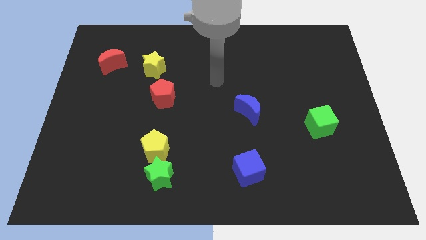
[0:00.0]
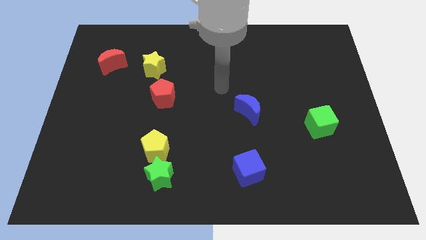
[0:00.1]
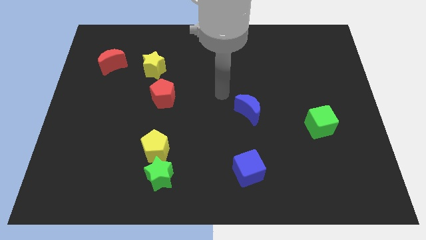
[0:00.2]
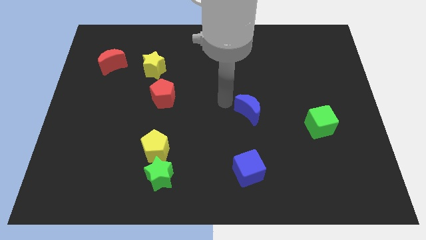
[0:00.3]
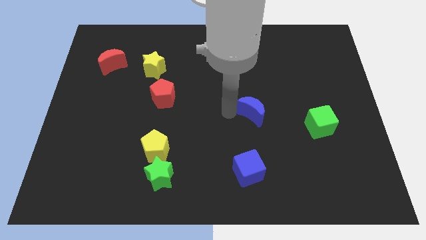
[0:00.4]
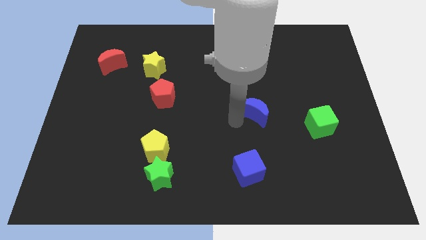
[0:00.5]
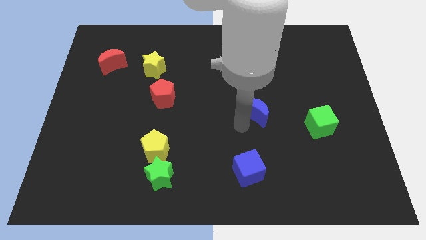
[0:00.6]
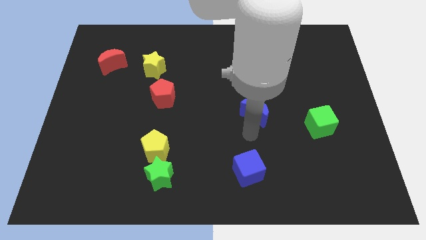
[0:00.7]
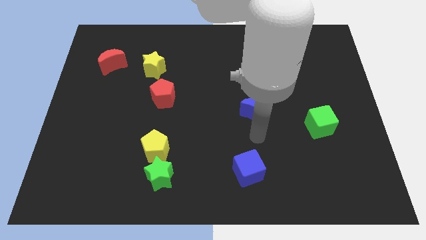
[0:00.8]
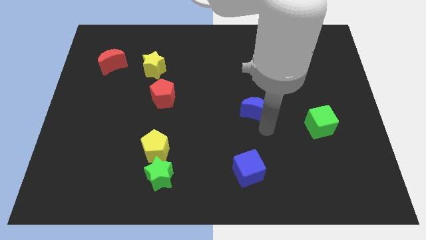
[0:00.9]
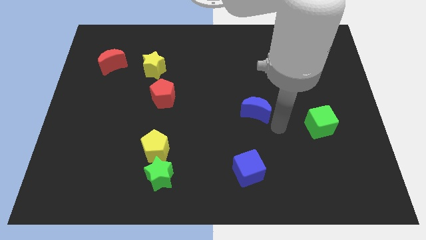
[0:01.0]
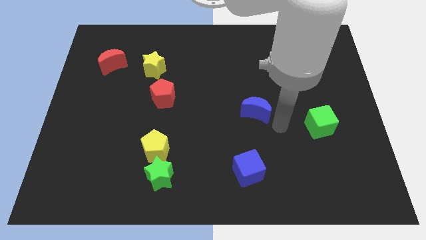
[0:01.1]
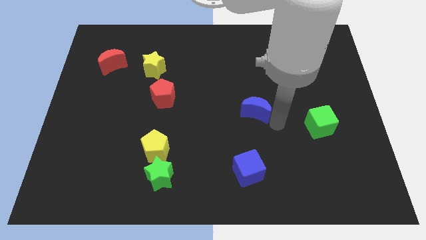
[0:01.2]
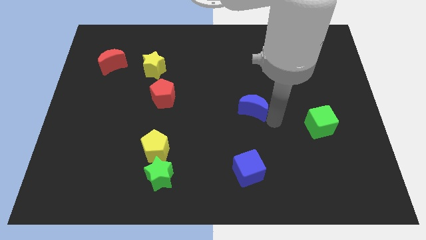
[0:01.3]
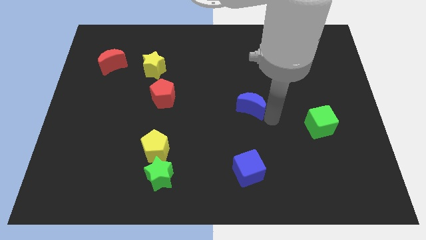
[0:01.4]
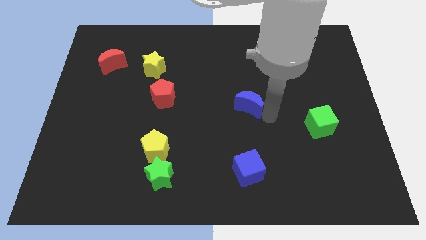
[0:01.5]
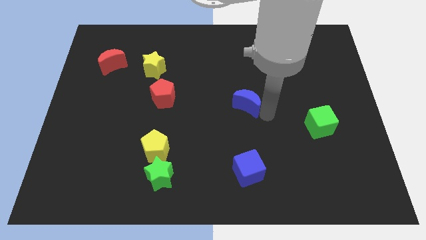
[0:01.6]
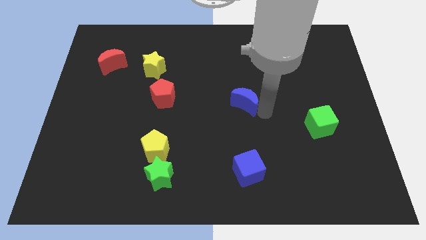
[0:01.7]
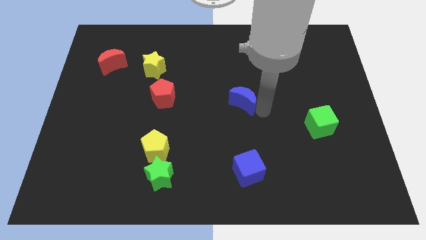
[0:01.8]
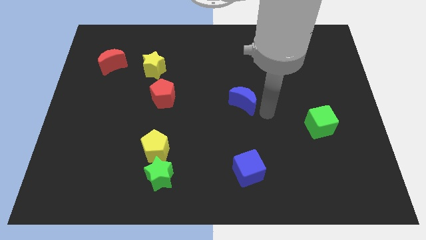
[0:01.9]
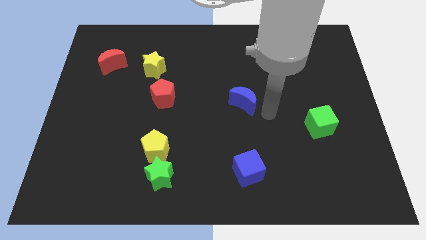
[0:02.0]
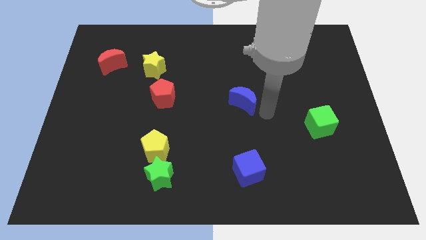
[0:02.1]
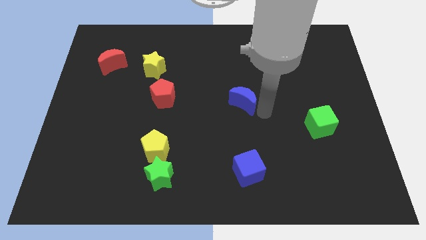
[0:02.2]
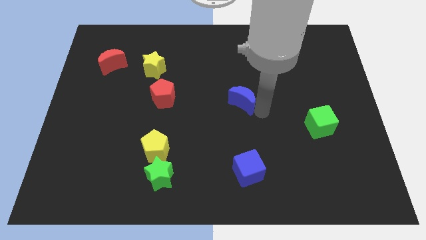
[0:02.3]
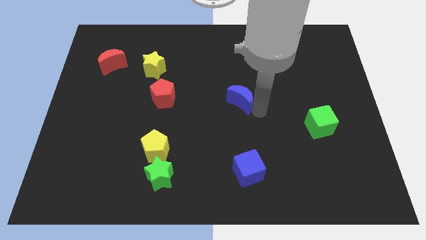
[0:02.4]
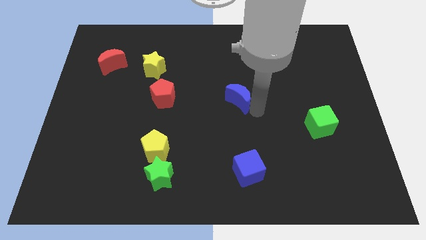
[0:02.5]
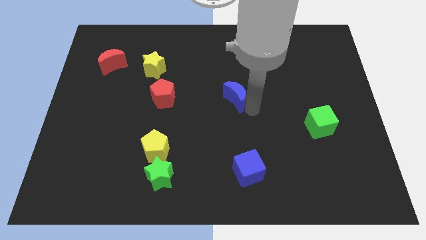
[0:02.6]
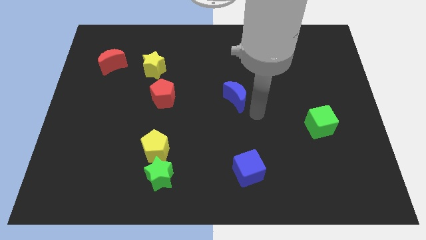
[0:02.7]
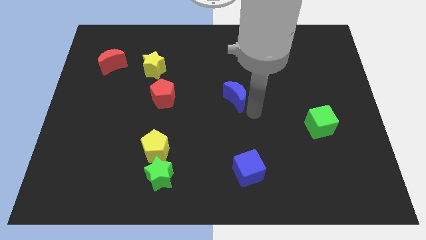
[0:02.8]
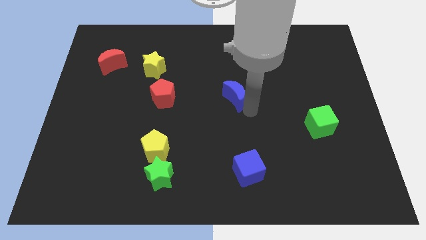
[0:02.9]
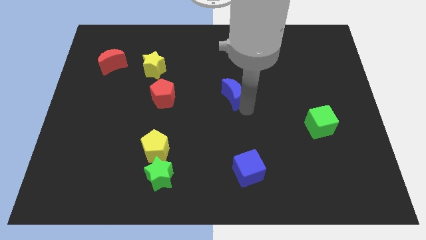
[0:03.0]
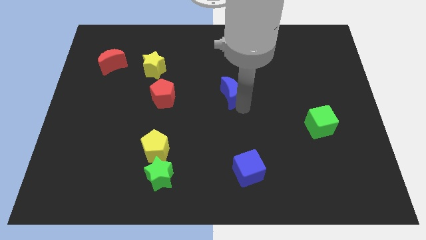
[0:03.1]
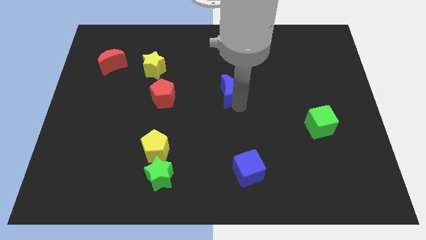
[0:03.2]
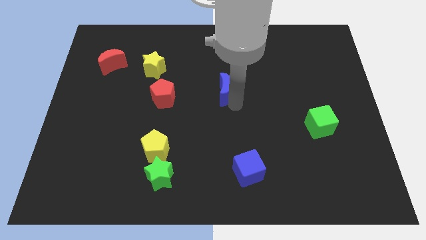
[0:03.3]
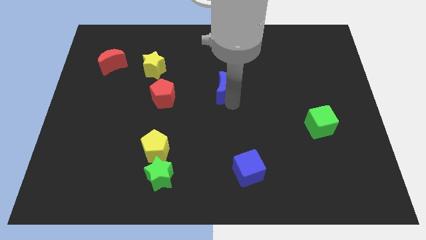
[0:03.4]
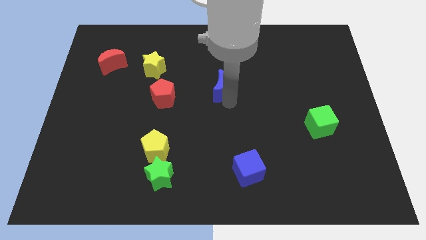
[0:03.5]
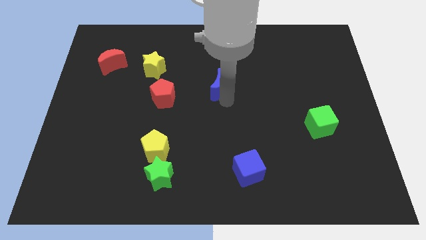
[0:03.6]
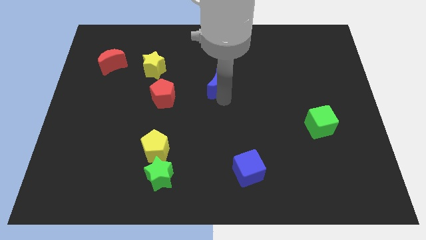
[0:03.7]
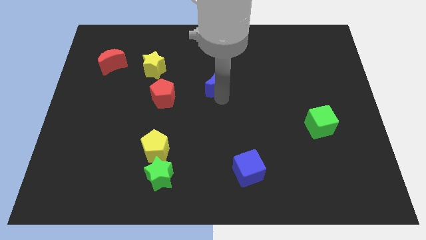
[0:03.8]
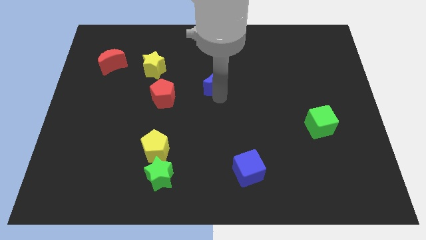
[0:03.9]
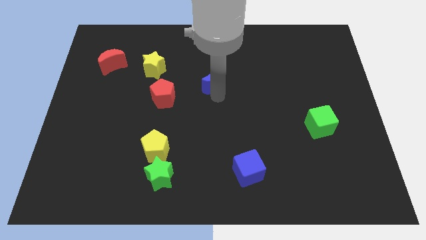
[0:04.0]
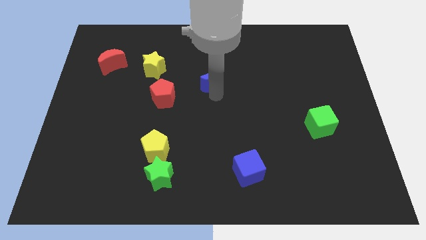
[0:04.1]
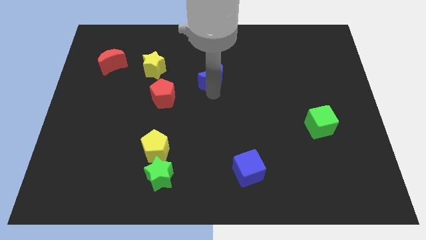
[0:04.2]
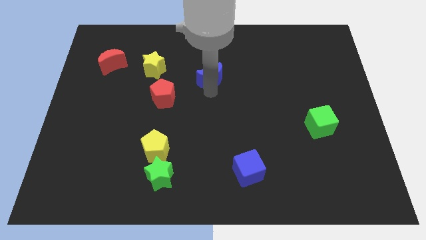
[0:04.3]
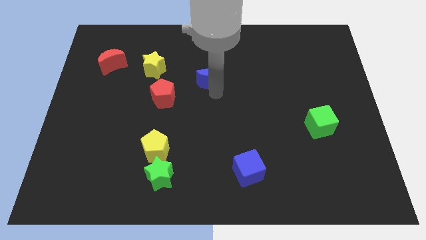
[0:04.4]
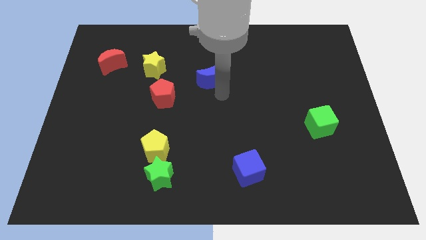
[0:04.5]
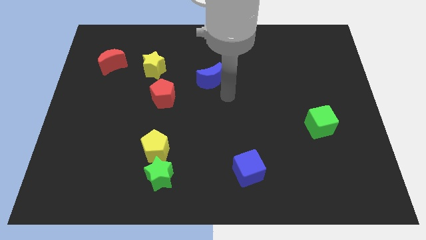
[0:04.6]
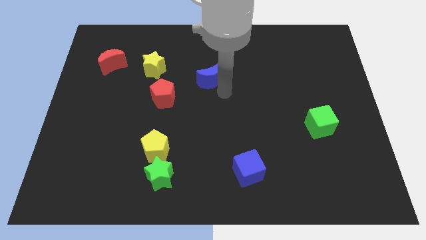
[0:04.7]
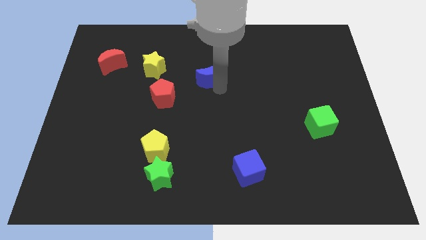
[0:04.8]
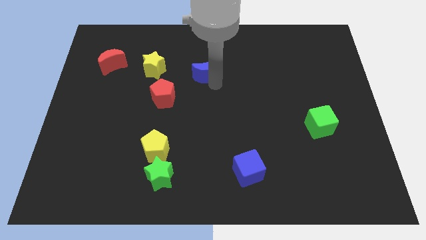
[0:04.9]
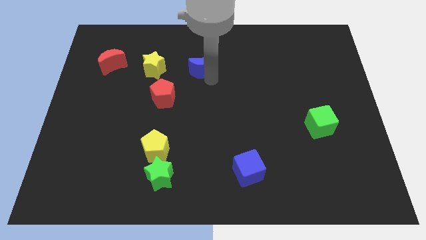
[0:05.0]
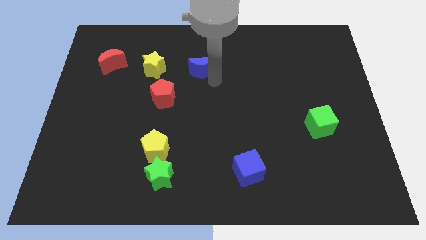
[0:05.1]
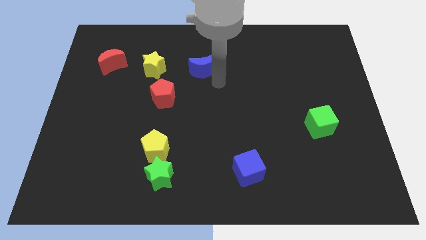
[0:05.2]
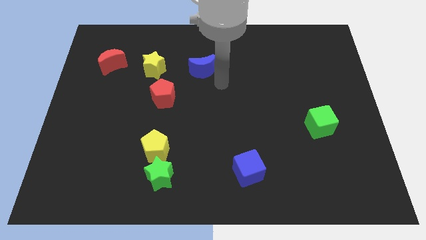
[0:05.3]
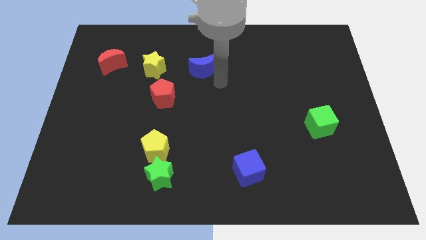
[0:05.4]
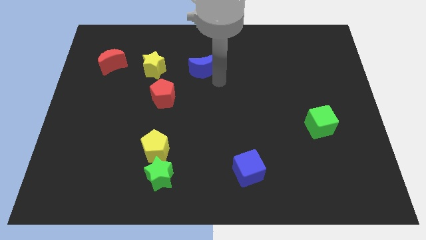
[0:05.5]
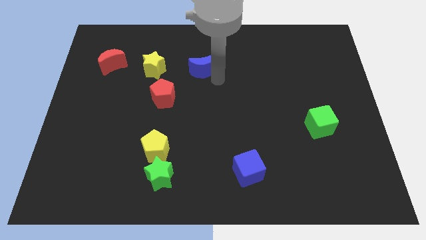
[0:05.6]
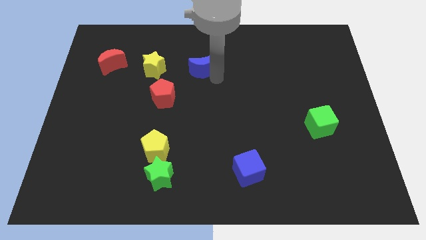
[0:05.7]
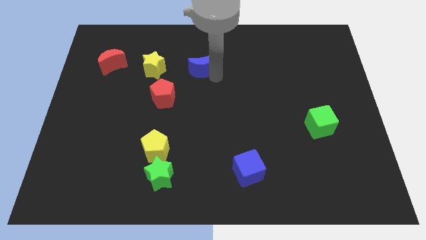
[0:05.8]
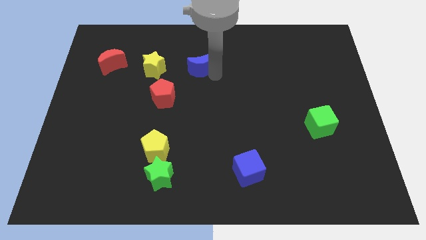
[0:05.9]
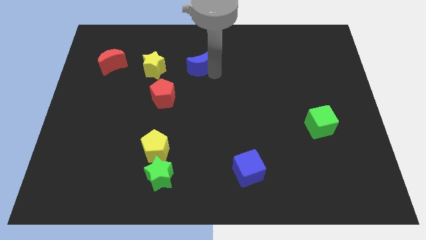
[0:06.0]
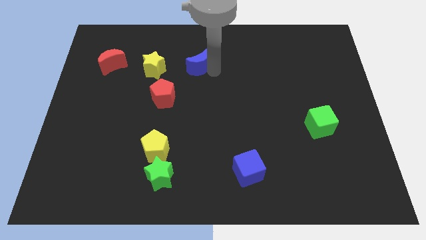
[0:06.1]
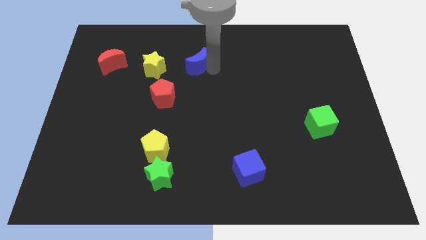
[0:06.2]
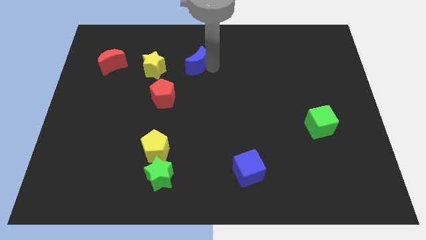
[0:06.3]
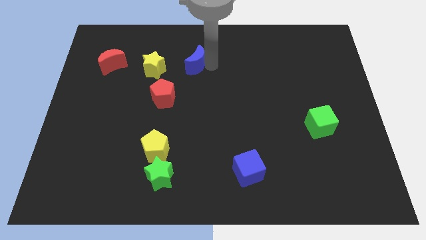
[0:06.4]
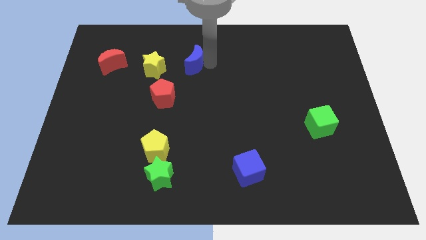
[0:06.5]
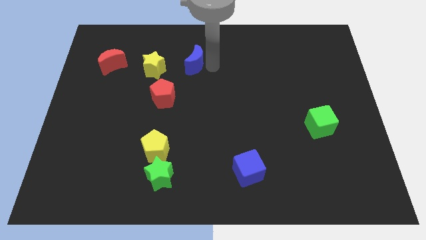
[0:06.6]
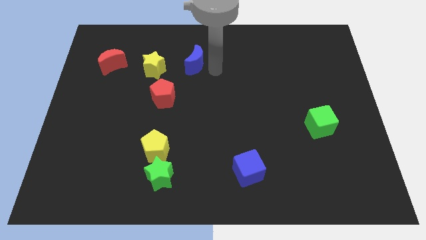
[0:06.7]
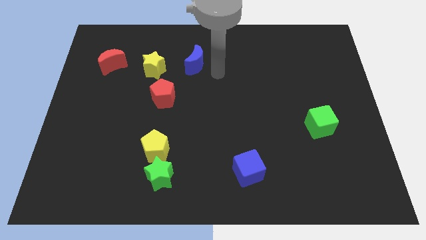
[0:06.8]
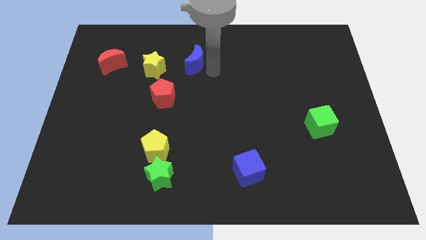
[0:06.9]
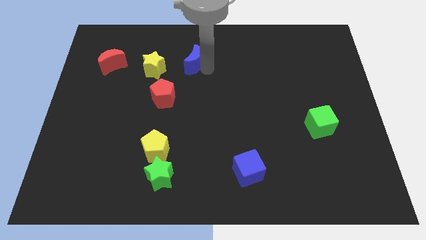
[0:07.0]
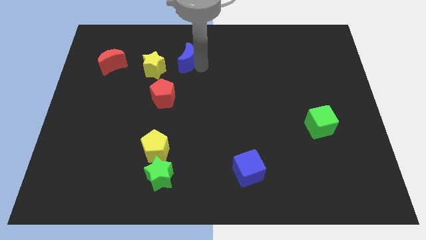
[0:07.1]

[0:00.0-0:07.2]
push the blue moon to the top right side of the yellow star
